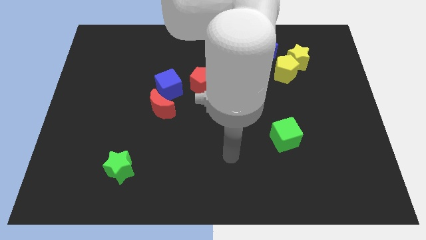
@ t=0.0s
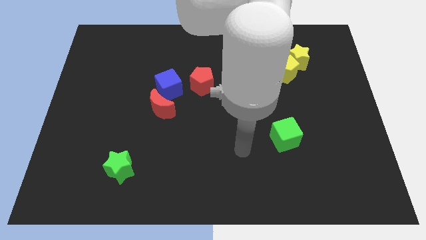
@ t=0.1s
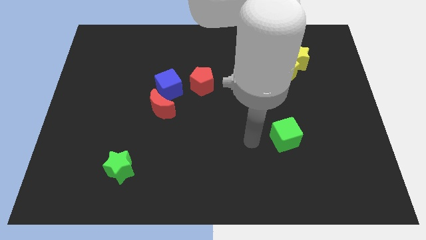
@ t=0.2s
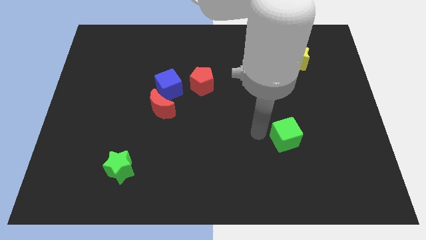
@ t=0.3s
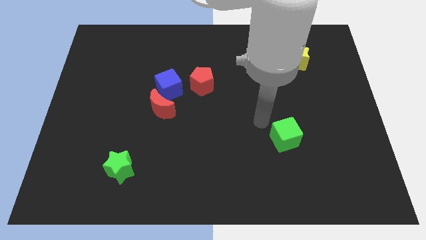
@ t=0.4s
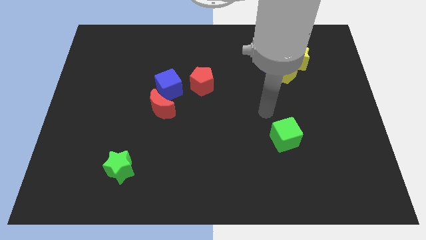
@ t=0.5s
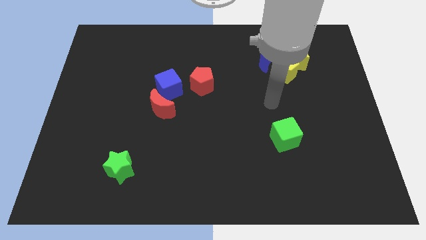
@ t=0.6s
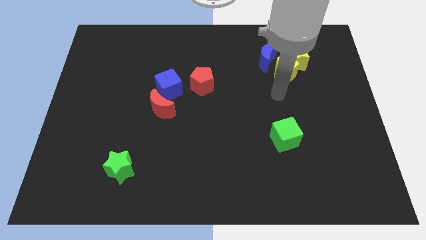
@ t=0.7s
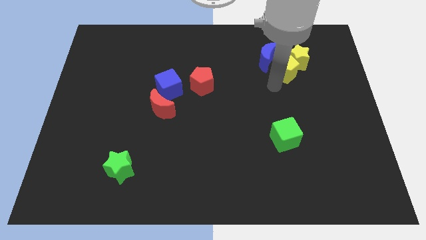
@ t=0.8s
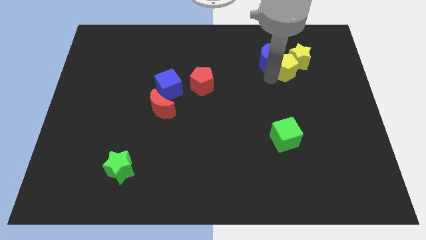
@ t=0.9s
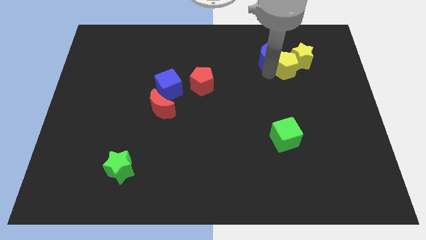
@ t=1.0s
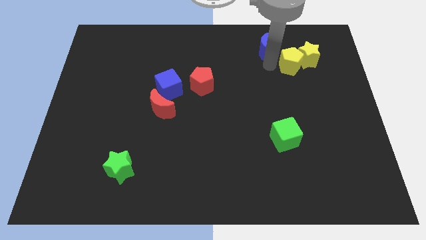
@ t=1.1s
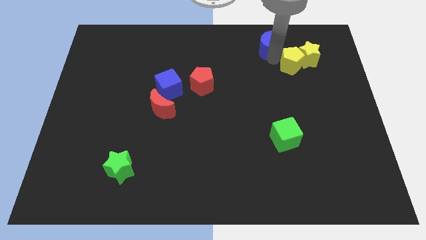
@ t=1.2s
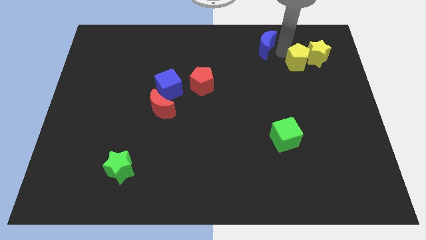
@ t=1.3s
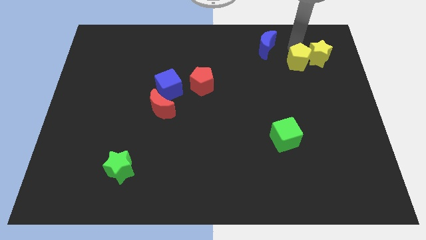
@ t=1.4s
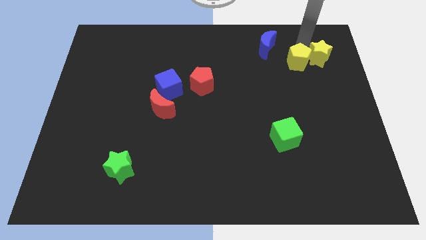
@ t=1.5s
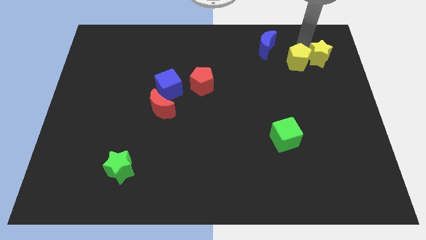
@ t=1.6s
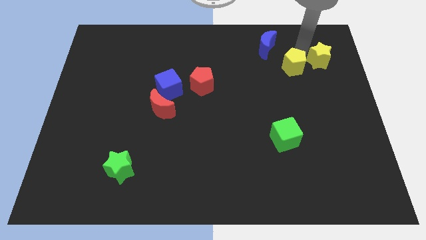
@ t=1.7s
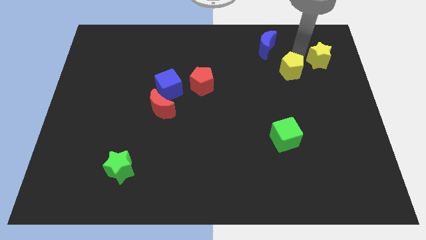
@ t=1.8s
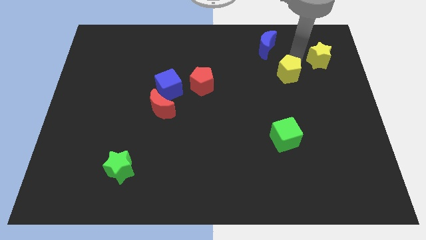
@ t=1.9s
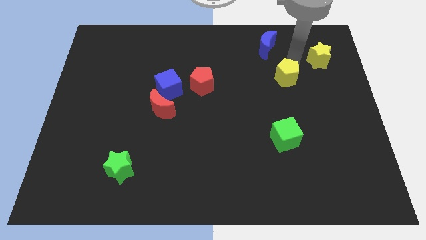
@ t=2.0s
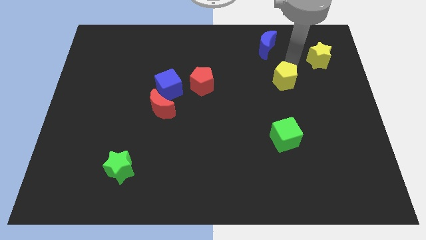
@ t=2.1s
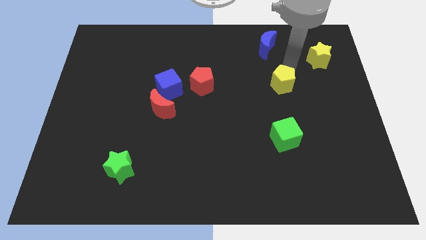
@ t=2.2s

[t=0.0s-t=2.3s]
move the yellow pentagon away from the yellow star and blue moon

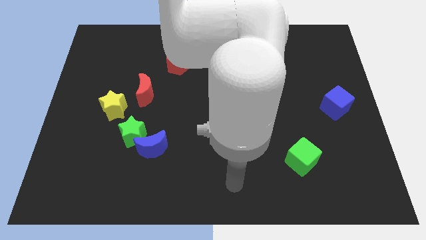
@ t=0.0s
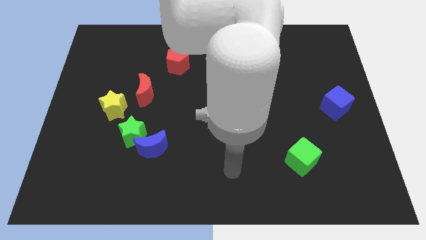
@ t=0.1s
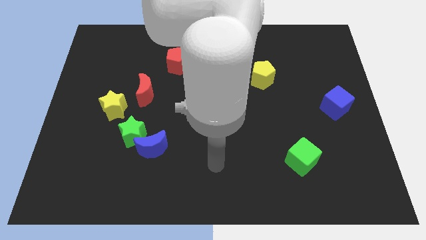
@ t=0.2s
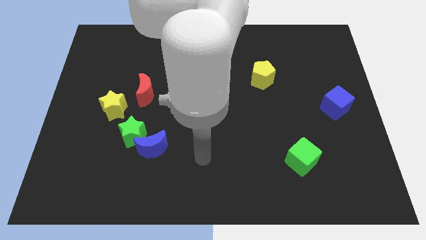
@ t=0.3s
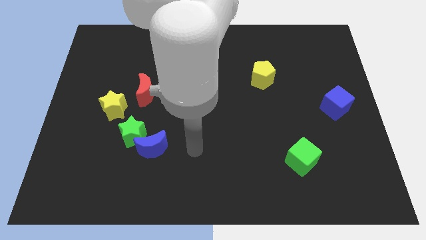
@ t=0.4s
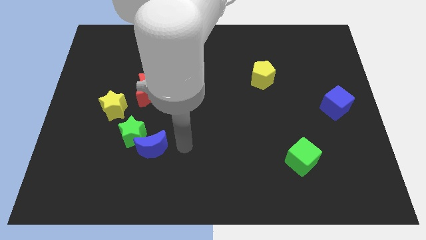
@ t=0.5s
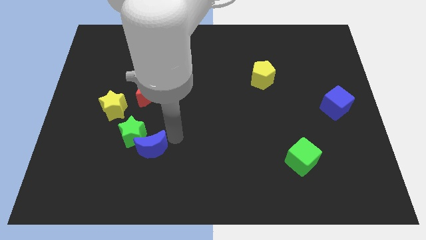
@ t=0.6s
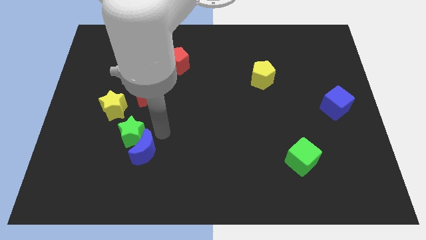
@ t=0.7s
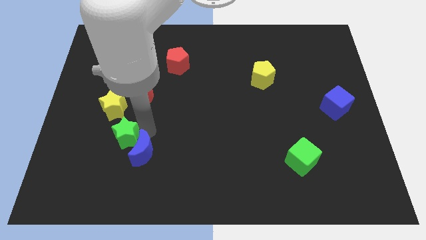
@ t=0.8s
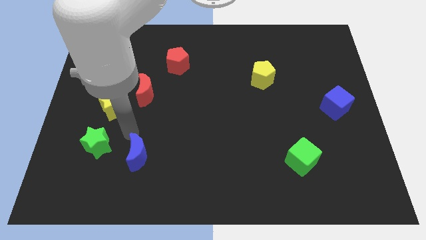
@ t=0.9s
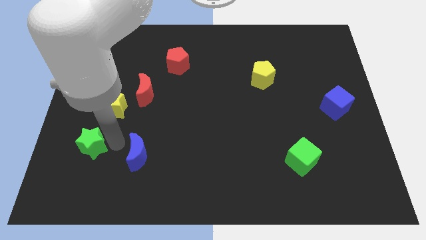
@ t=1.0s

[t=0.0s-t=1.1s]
pull the blue moon apart from the green star

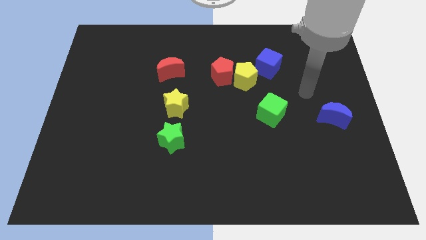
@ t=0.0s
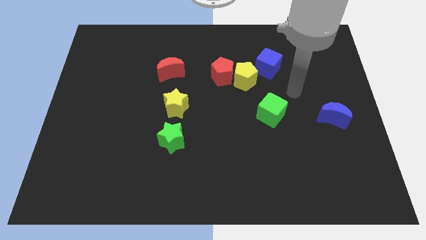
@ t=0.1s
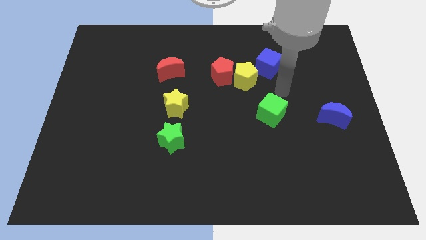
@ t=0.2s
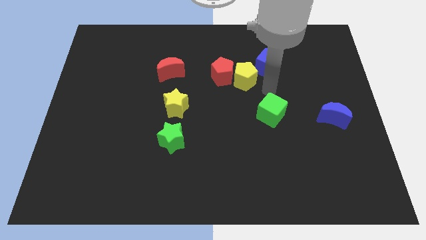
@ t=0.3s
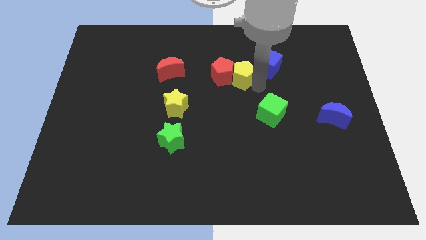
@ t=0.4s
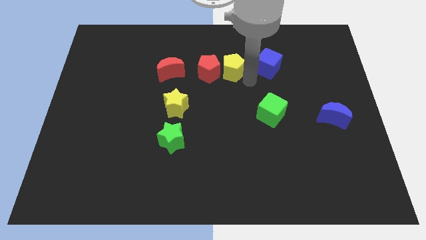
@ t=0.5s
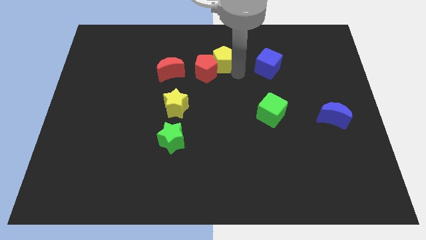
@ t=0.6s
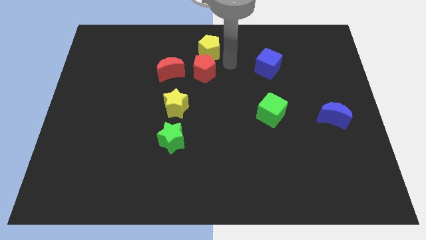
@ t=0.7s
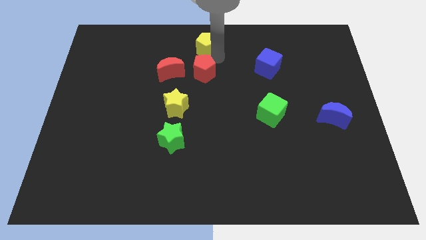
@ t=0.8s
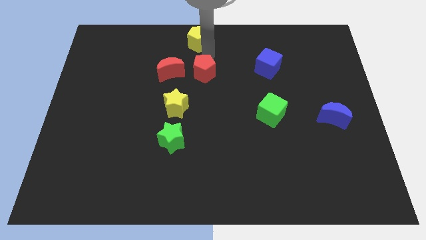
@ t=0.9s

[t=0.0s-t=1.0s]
move the red pentagon away from the yellow pentagon

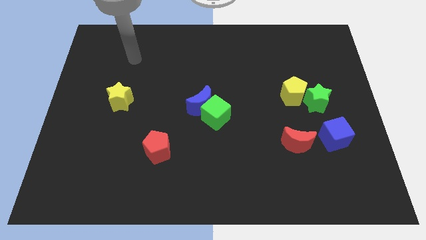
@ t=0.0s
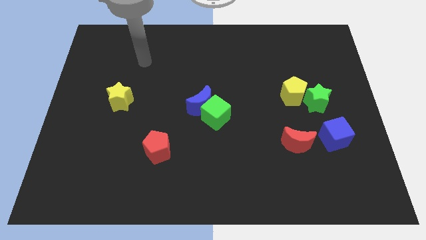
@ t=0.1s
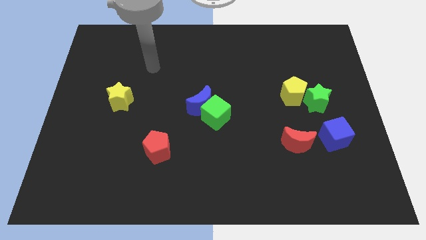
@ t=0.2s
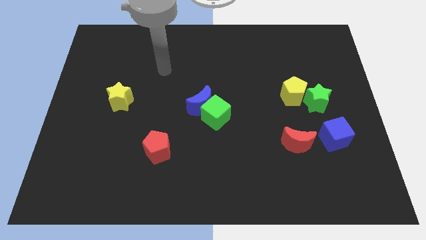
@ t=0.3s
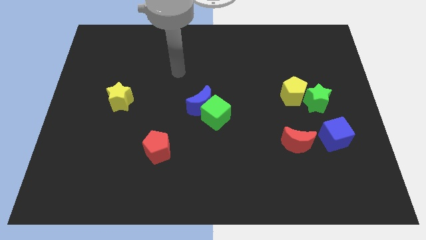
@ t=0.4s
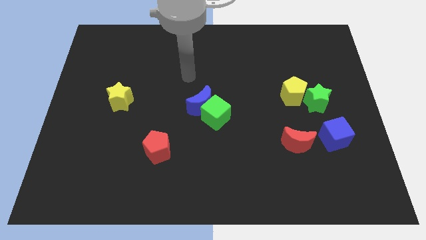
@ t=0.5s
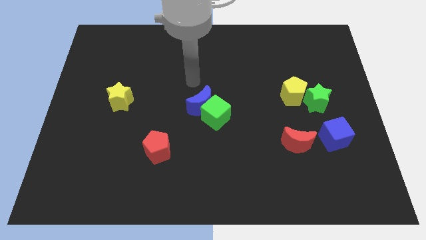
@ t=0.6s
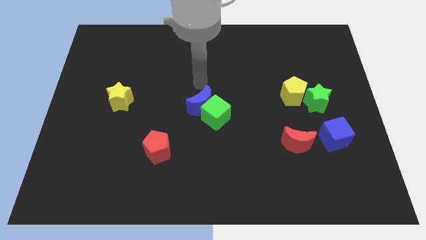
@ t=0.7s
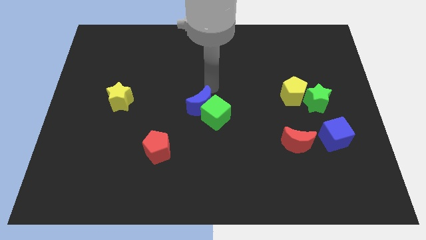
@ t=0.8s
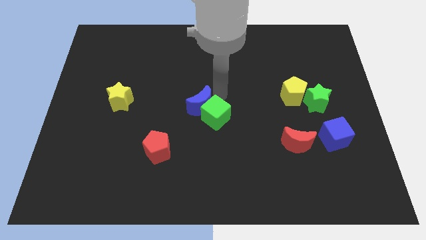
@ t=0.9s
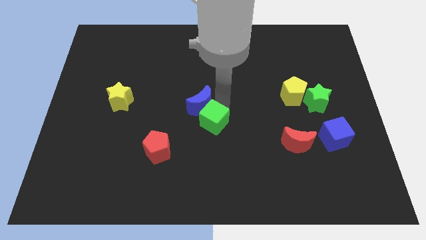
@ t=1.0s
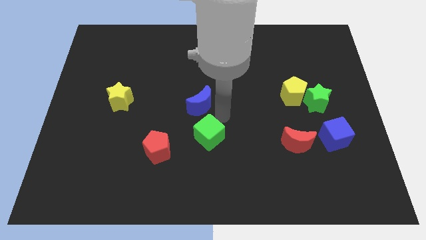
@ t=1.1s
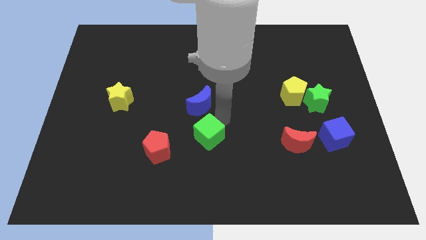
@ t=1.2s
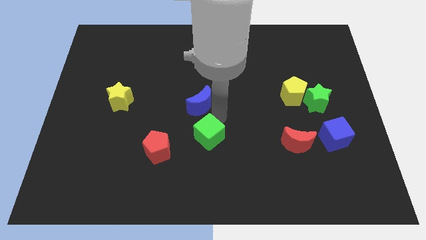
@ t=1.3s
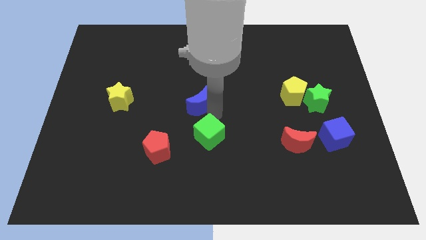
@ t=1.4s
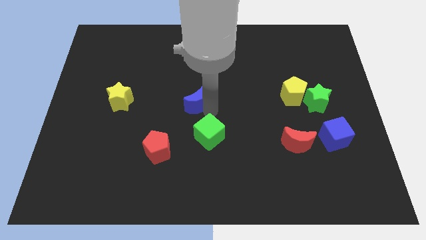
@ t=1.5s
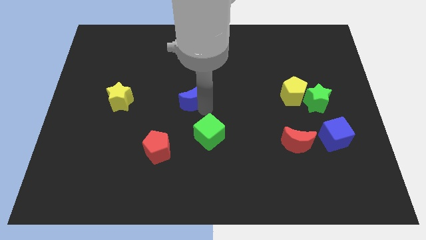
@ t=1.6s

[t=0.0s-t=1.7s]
pull the blue moon apart from the green cube

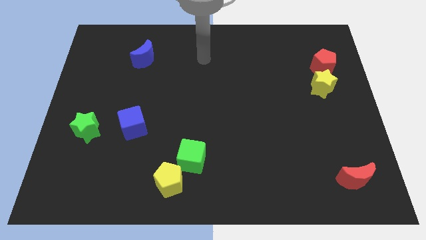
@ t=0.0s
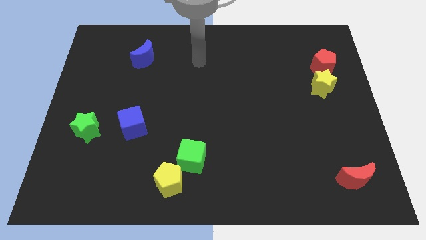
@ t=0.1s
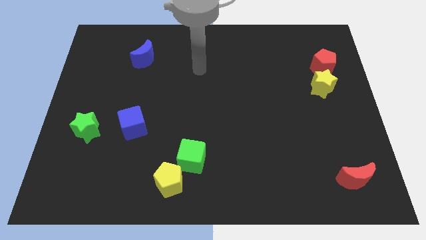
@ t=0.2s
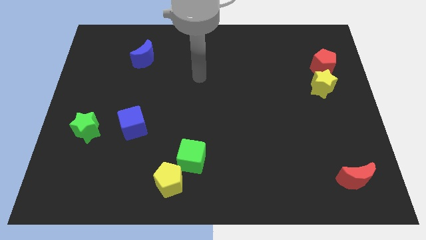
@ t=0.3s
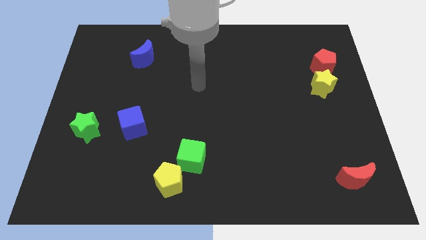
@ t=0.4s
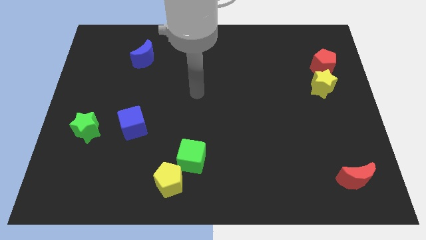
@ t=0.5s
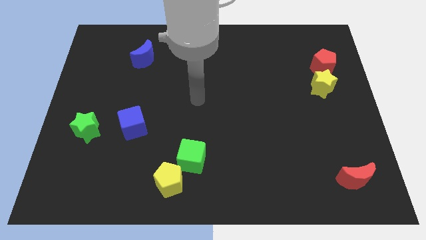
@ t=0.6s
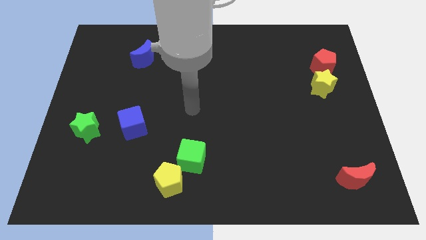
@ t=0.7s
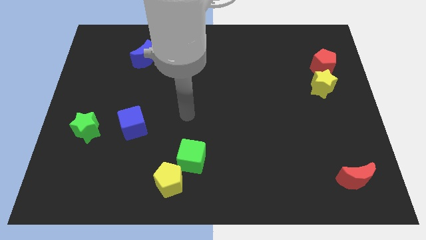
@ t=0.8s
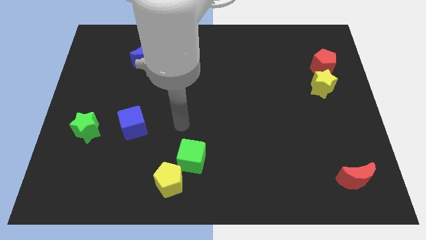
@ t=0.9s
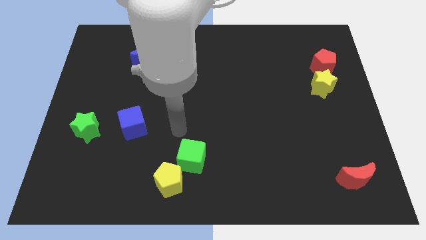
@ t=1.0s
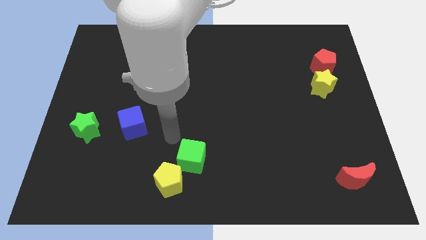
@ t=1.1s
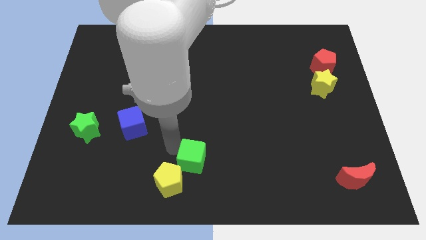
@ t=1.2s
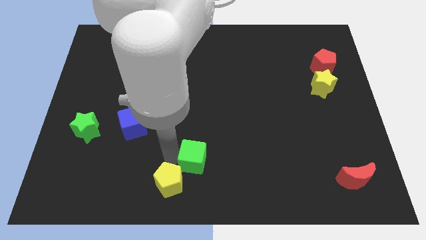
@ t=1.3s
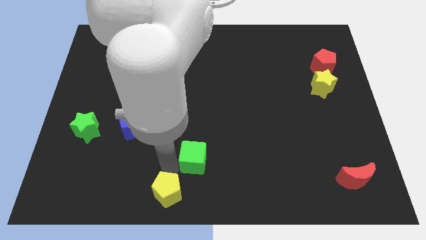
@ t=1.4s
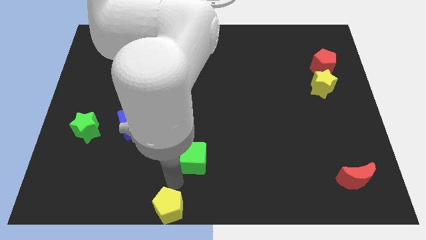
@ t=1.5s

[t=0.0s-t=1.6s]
move the green cube away from the yellow pentagon

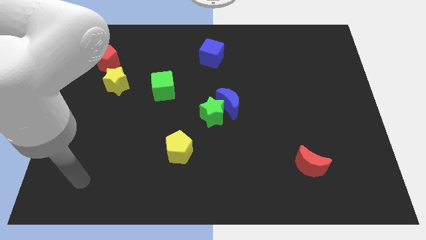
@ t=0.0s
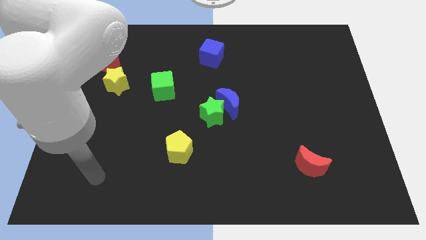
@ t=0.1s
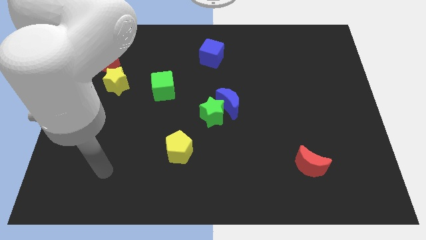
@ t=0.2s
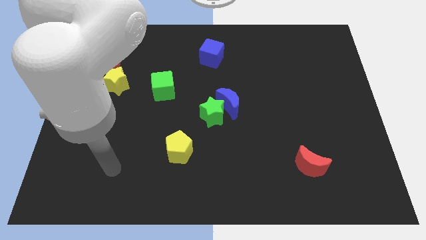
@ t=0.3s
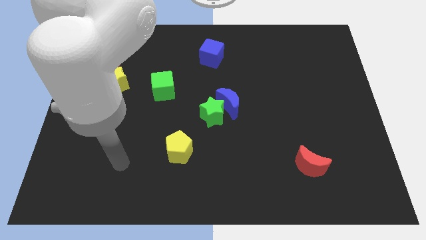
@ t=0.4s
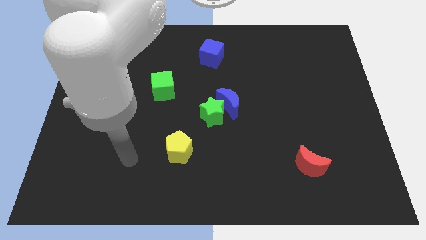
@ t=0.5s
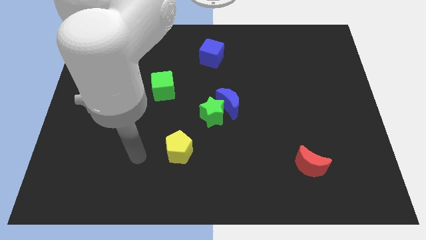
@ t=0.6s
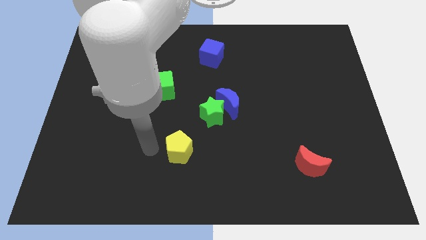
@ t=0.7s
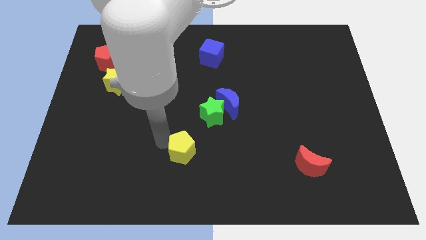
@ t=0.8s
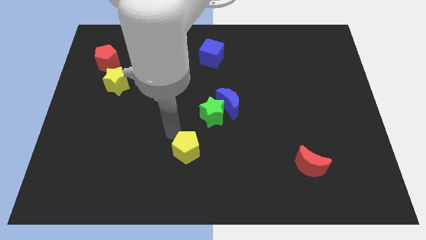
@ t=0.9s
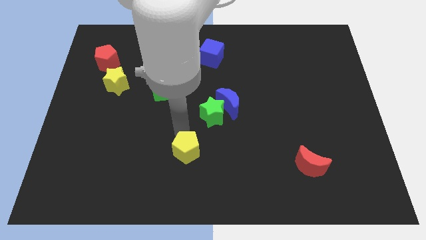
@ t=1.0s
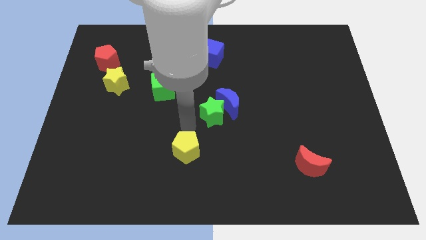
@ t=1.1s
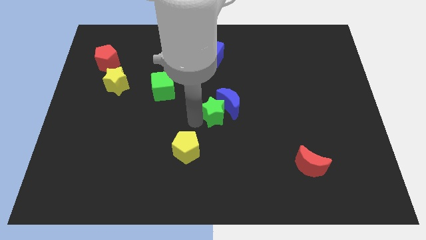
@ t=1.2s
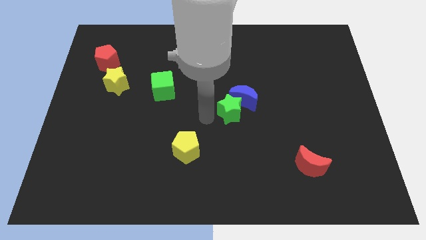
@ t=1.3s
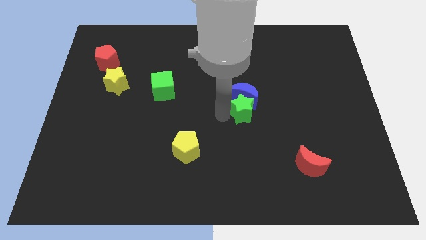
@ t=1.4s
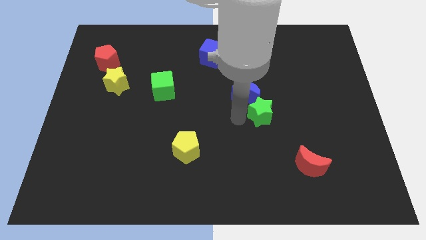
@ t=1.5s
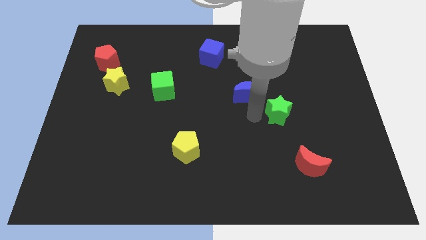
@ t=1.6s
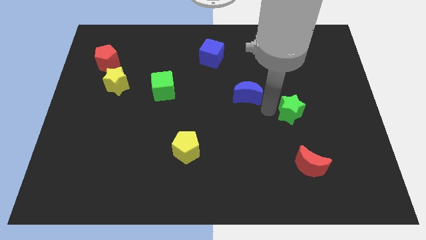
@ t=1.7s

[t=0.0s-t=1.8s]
separate the blue moon from the green star

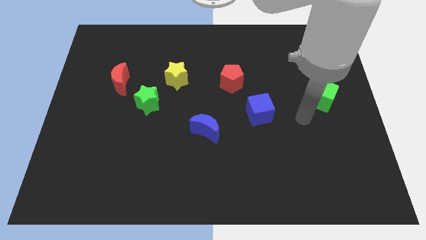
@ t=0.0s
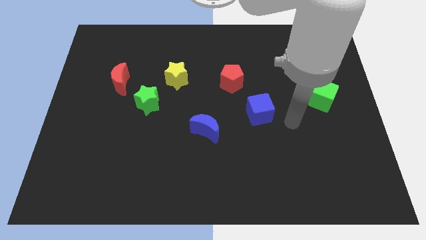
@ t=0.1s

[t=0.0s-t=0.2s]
pull the yellow star apart from the green star
